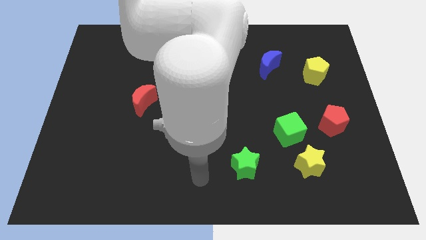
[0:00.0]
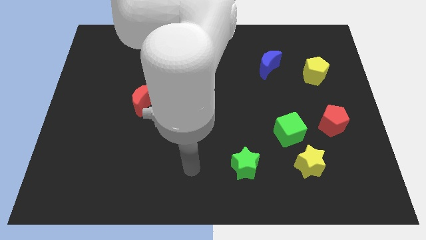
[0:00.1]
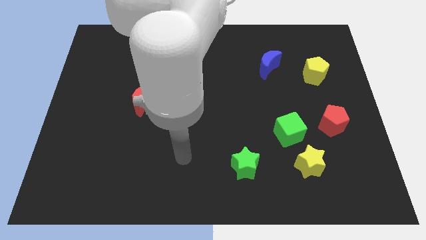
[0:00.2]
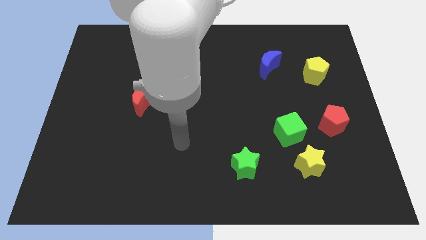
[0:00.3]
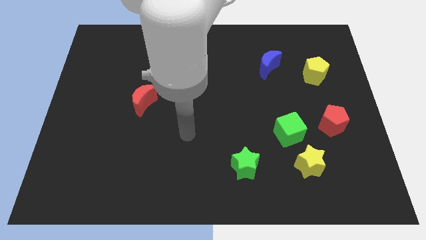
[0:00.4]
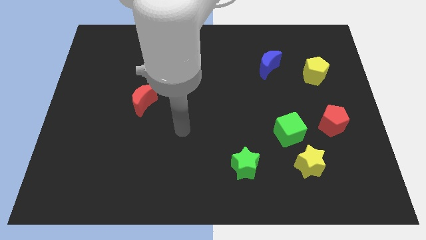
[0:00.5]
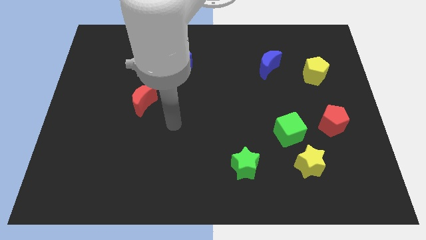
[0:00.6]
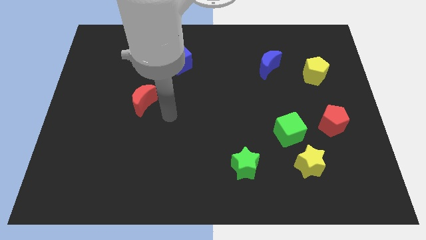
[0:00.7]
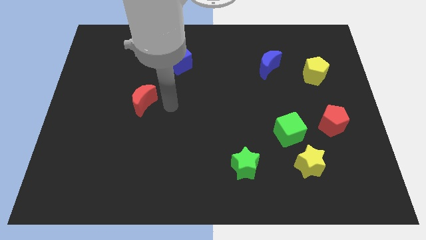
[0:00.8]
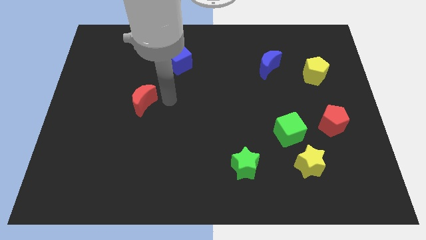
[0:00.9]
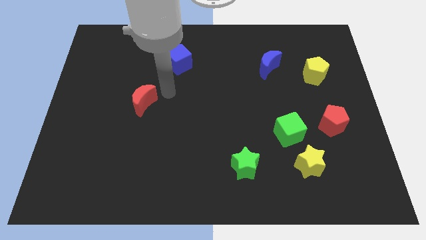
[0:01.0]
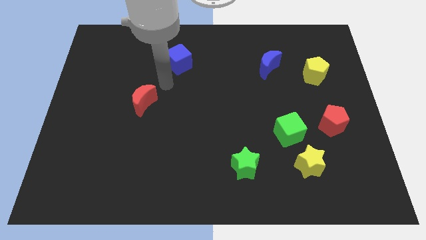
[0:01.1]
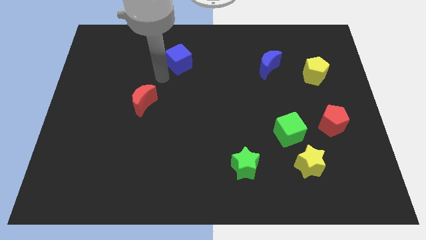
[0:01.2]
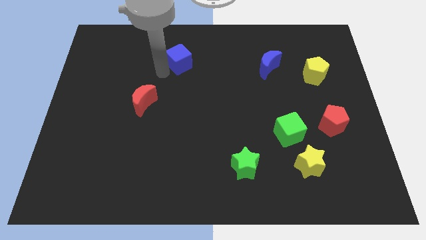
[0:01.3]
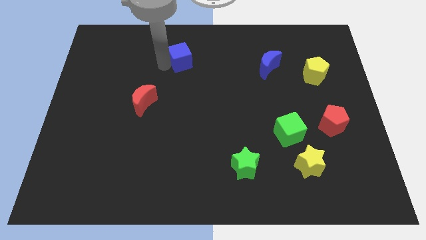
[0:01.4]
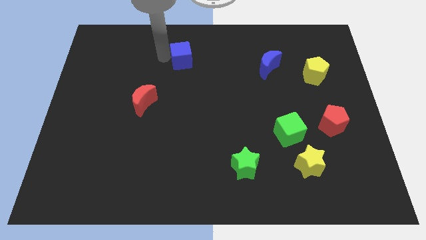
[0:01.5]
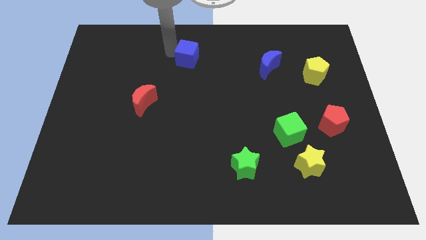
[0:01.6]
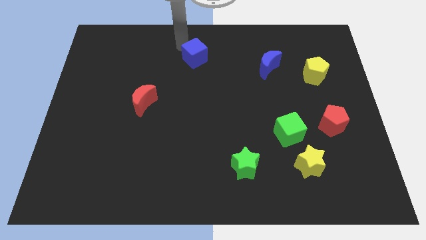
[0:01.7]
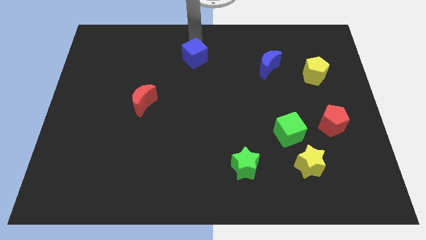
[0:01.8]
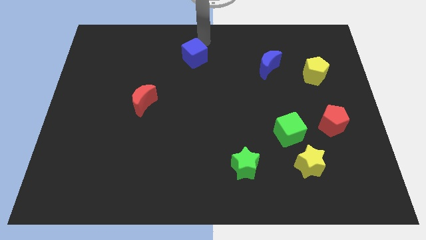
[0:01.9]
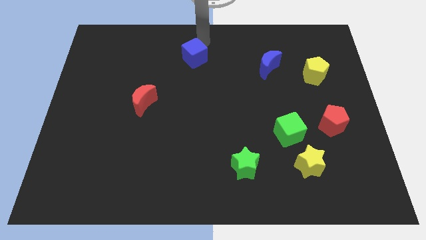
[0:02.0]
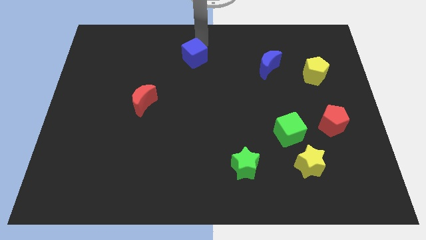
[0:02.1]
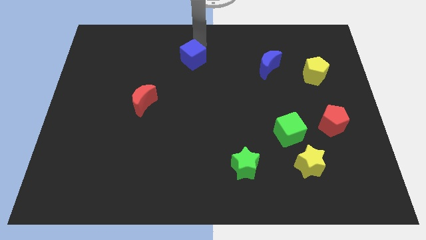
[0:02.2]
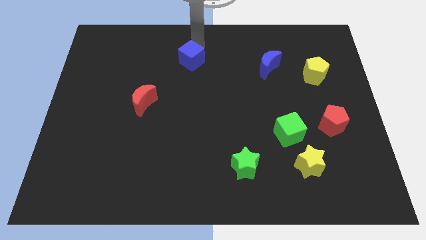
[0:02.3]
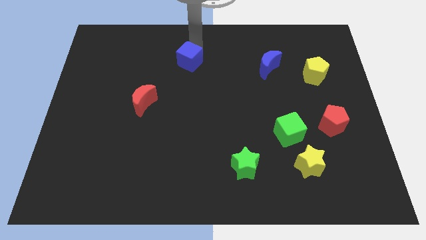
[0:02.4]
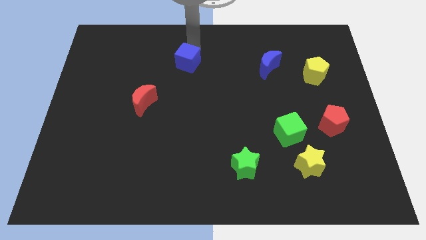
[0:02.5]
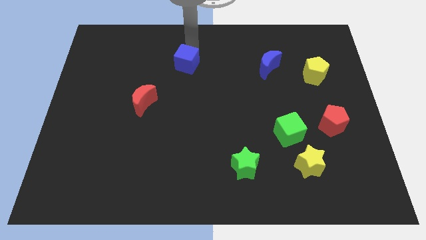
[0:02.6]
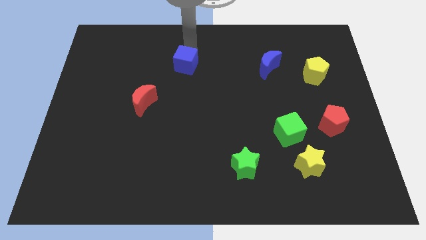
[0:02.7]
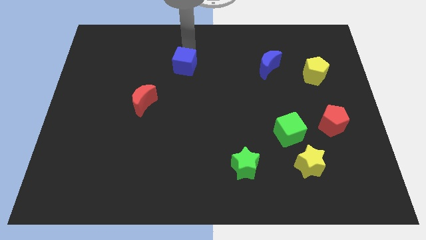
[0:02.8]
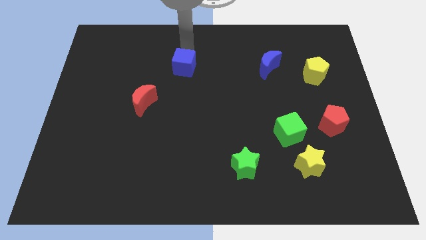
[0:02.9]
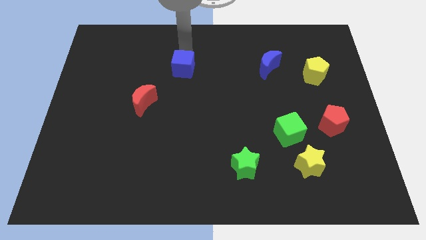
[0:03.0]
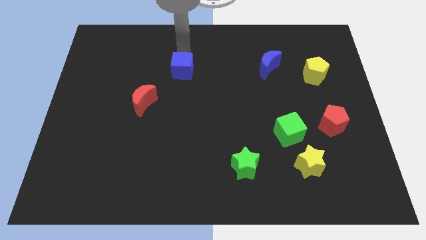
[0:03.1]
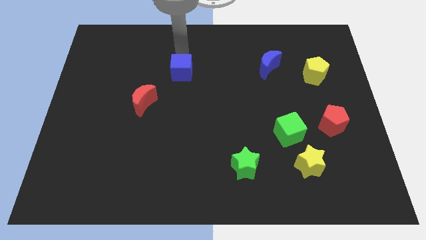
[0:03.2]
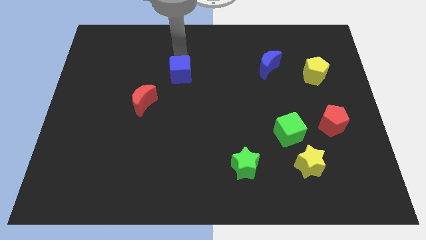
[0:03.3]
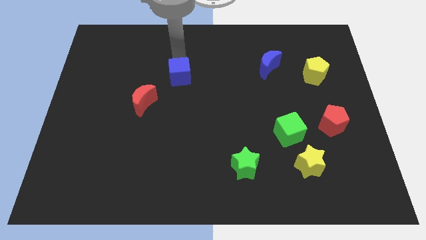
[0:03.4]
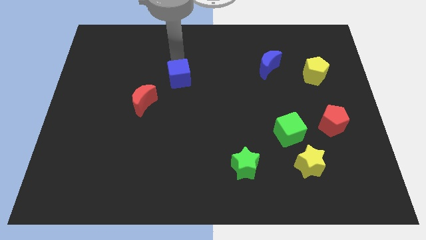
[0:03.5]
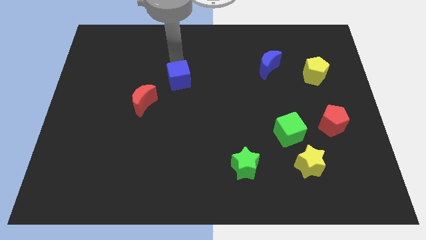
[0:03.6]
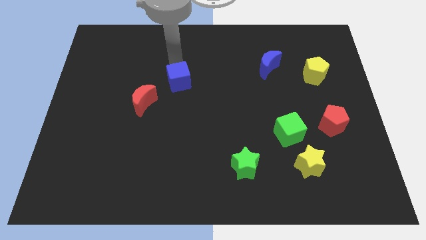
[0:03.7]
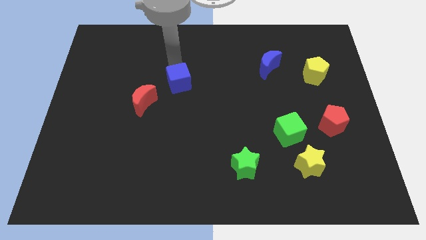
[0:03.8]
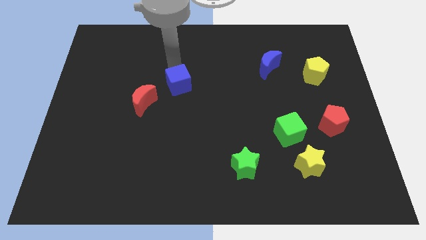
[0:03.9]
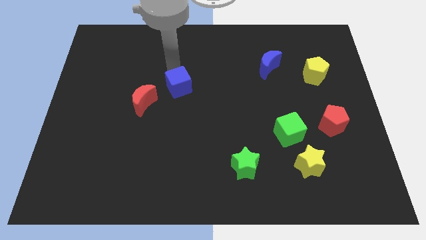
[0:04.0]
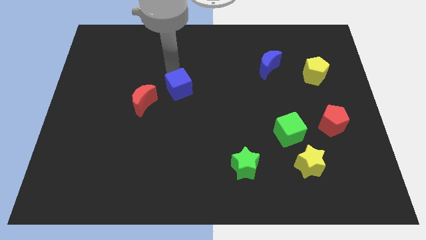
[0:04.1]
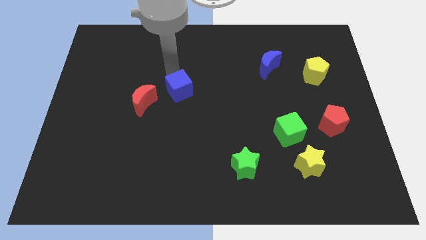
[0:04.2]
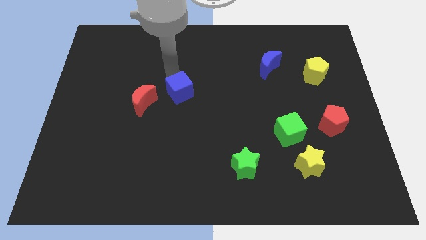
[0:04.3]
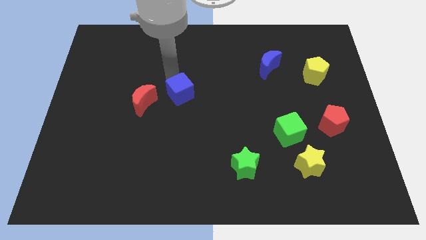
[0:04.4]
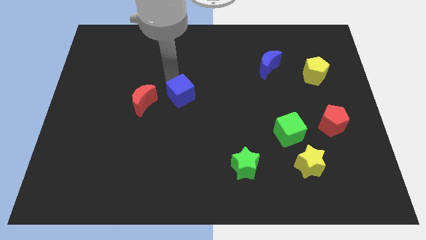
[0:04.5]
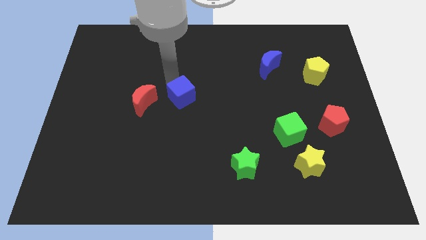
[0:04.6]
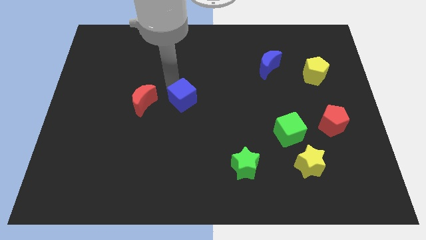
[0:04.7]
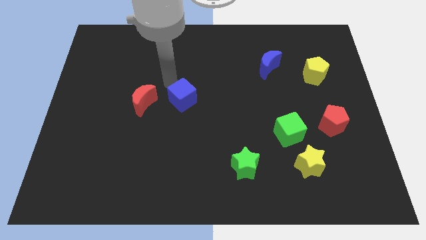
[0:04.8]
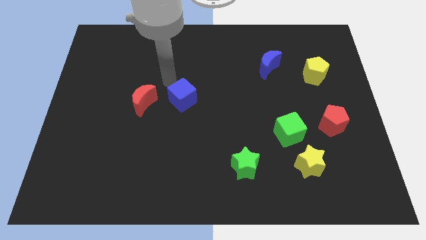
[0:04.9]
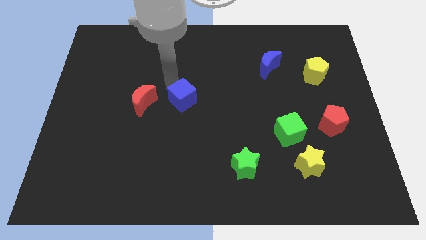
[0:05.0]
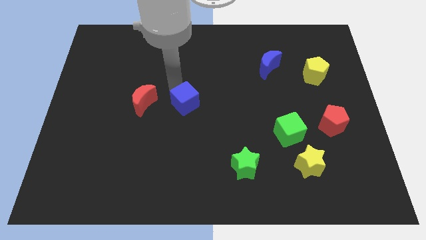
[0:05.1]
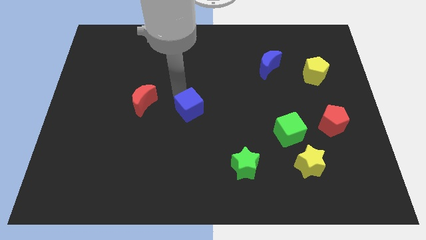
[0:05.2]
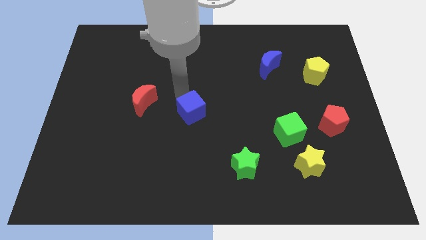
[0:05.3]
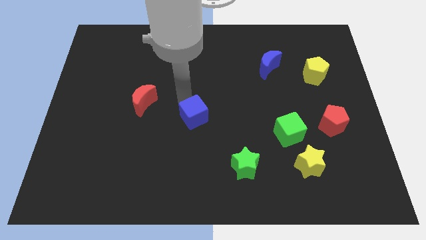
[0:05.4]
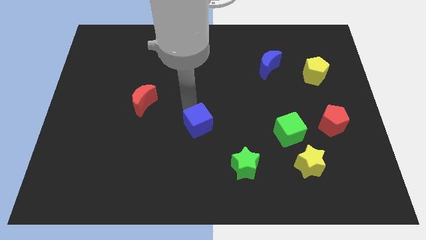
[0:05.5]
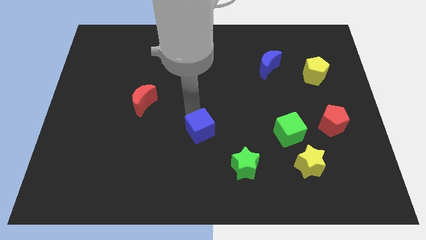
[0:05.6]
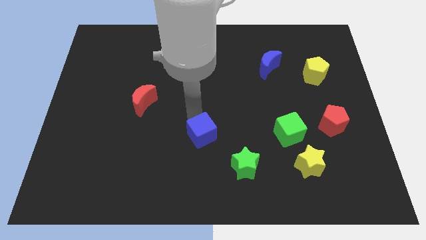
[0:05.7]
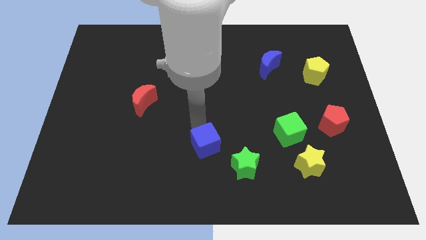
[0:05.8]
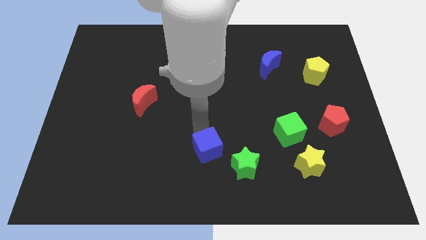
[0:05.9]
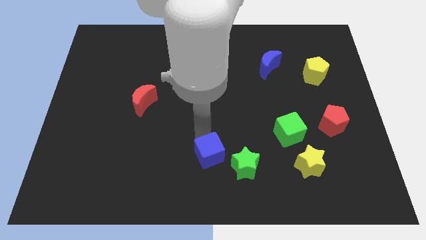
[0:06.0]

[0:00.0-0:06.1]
push the blue cube to the bottom side

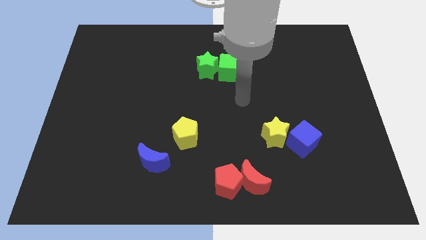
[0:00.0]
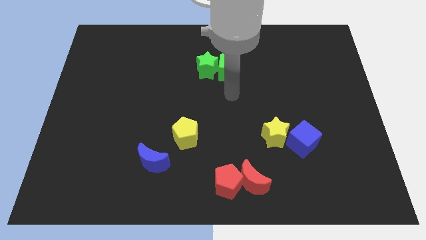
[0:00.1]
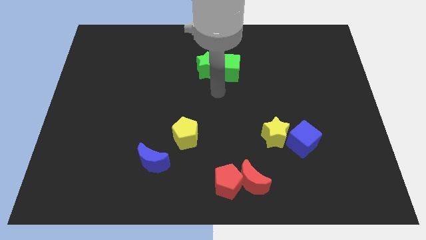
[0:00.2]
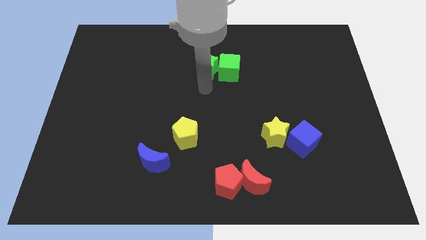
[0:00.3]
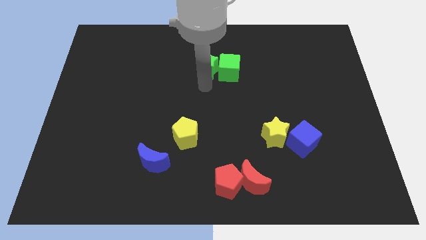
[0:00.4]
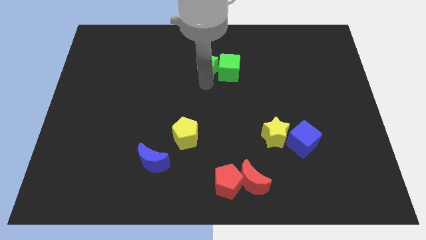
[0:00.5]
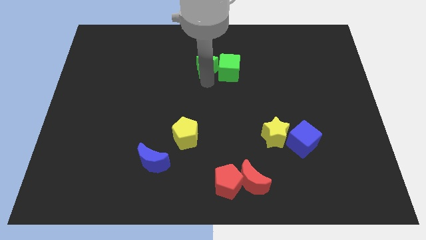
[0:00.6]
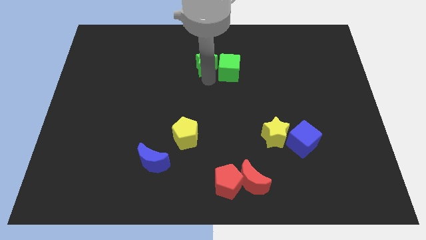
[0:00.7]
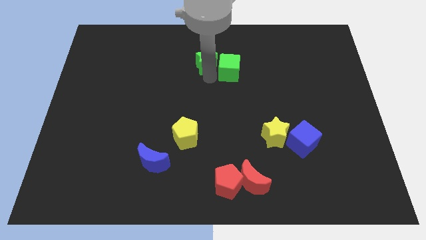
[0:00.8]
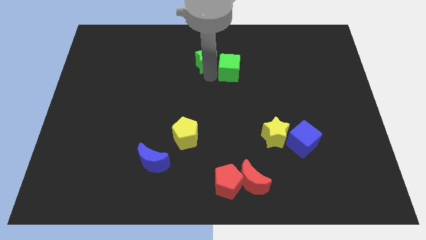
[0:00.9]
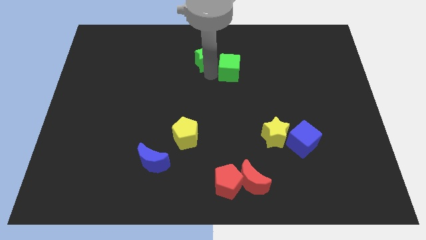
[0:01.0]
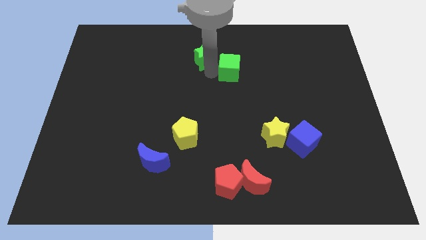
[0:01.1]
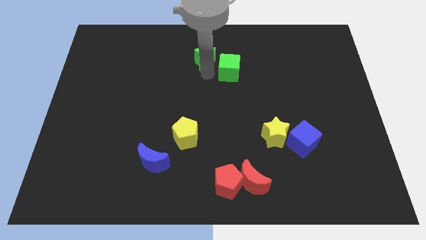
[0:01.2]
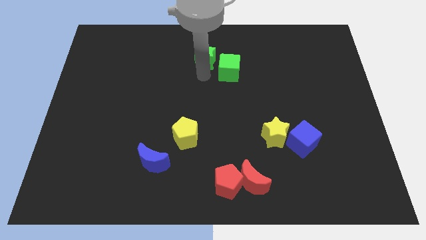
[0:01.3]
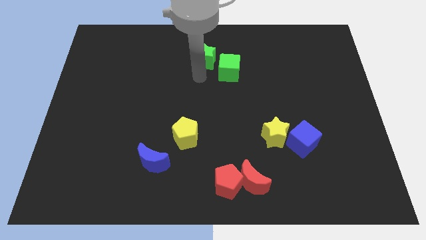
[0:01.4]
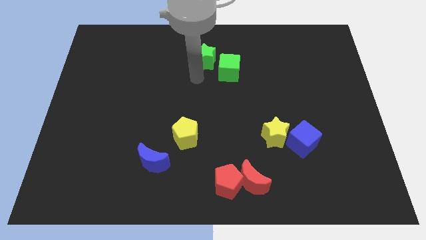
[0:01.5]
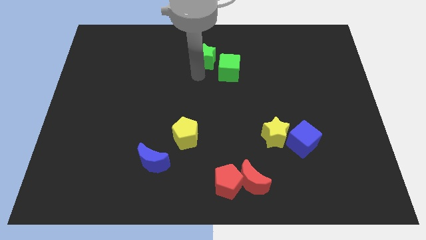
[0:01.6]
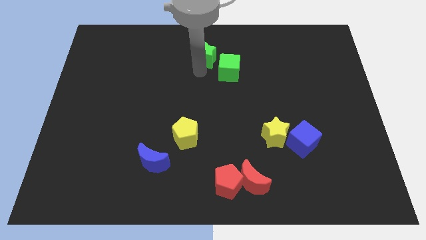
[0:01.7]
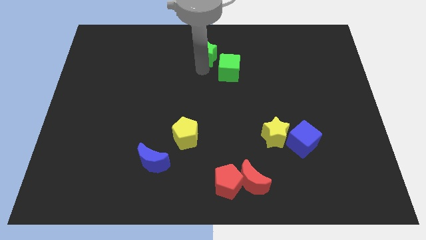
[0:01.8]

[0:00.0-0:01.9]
move the green star to the top side

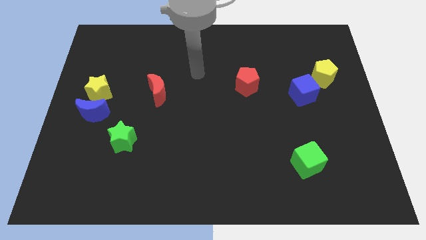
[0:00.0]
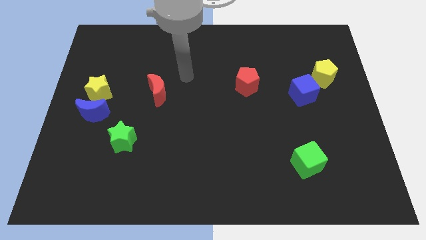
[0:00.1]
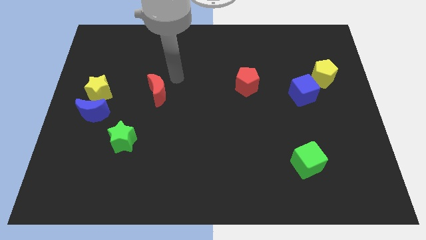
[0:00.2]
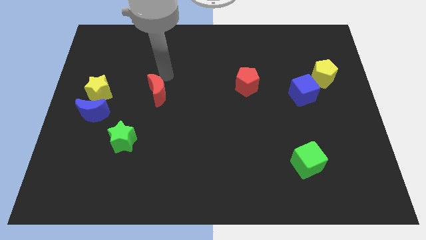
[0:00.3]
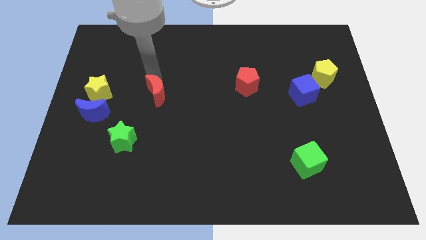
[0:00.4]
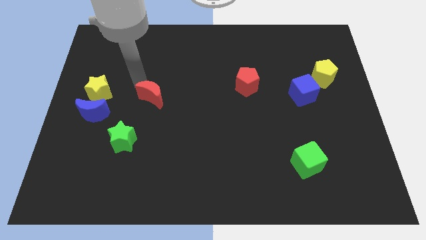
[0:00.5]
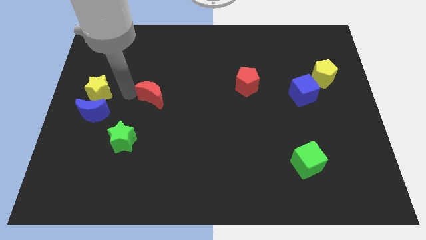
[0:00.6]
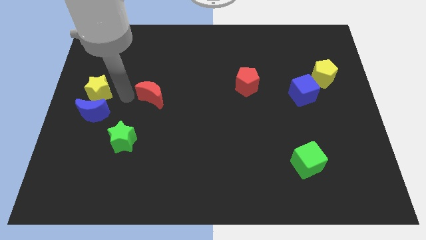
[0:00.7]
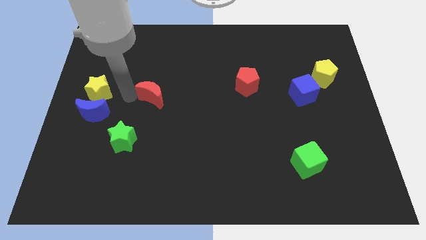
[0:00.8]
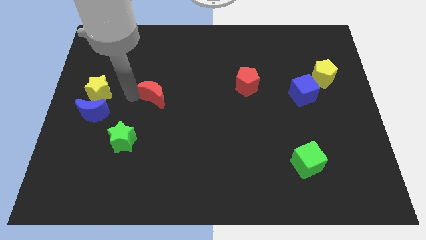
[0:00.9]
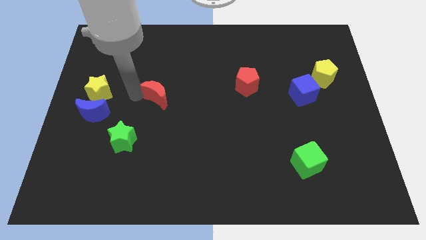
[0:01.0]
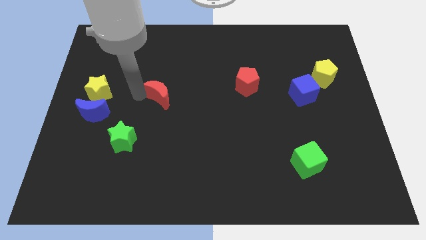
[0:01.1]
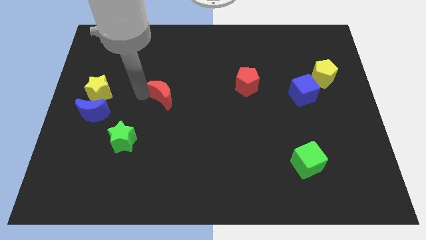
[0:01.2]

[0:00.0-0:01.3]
slide the red moon to the middle of the board
